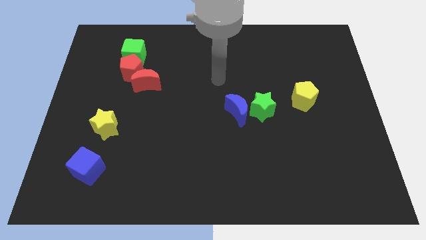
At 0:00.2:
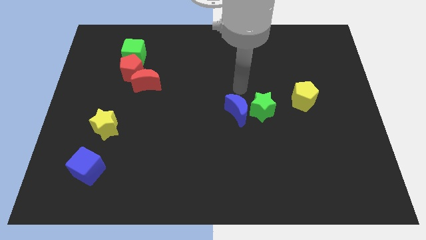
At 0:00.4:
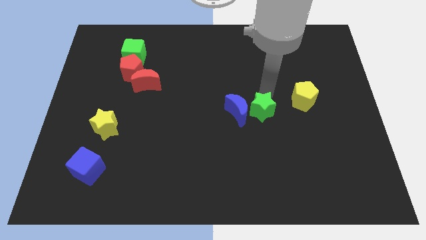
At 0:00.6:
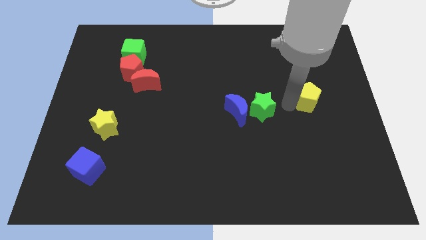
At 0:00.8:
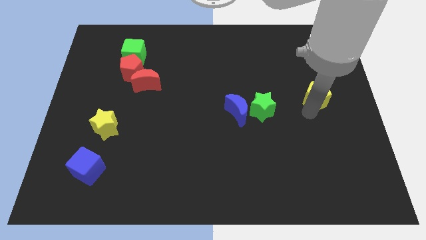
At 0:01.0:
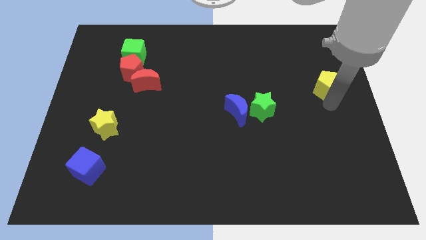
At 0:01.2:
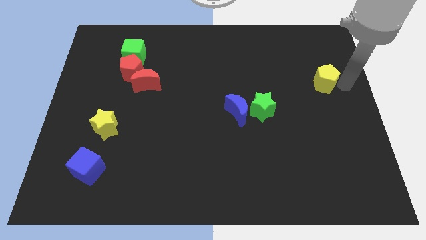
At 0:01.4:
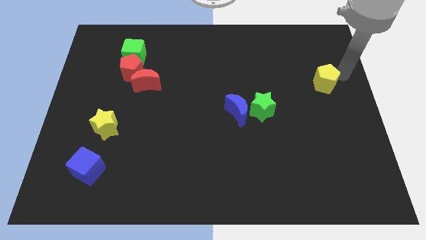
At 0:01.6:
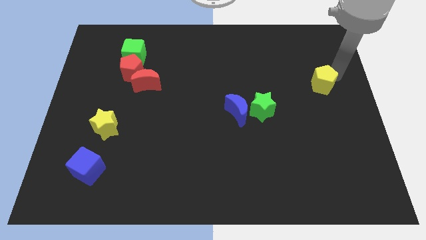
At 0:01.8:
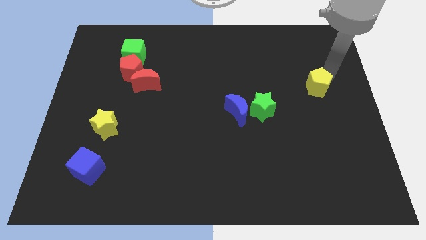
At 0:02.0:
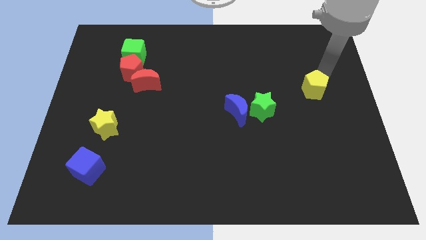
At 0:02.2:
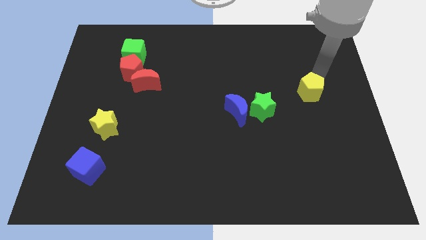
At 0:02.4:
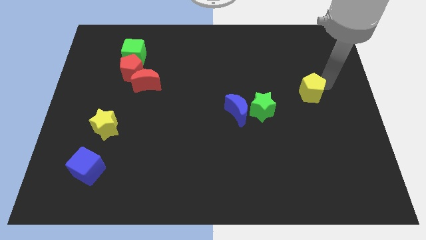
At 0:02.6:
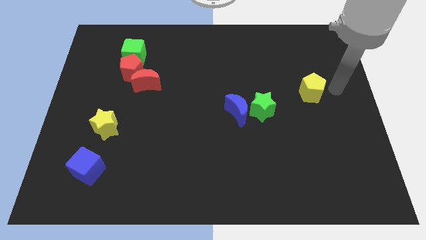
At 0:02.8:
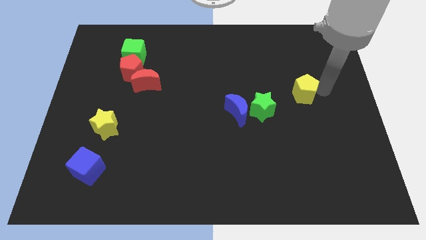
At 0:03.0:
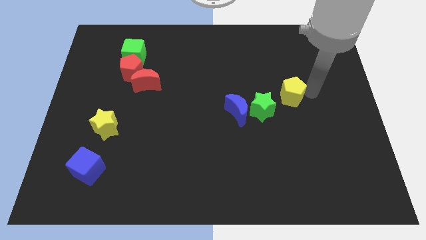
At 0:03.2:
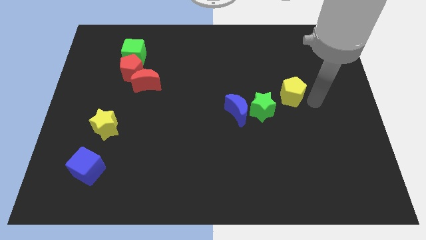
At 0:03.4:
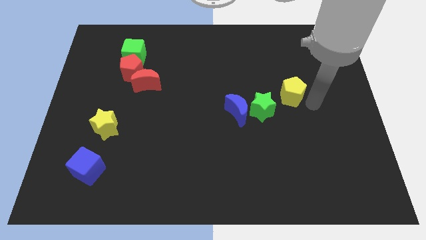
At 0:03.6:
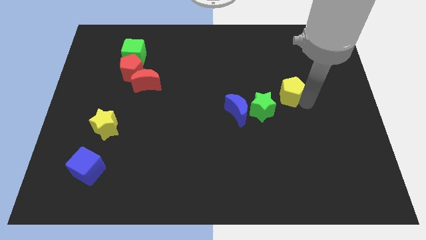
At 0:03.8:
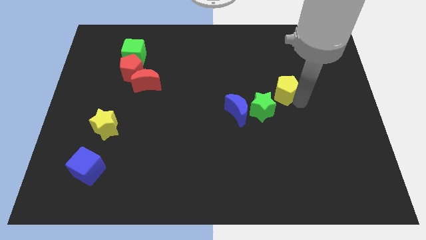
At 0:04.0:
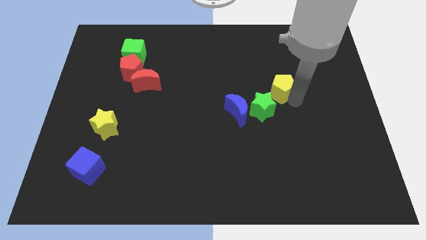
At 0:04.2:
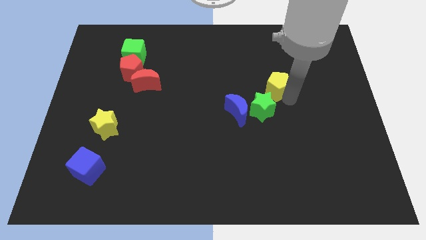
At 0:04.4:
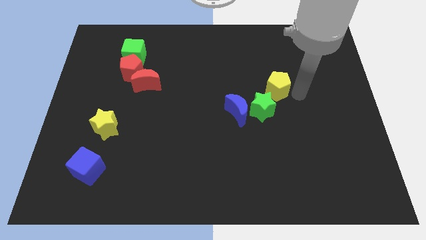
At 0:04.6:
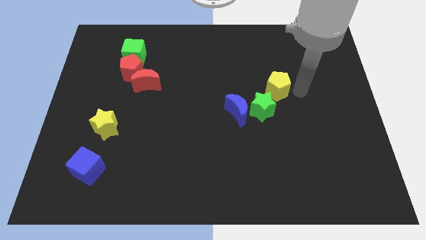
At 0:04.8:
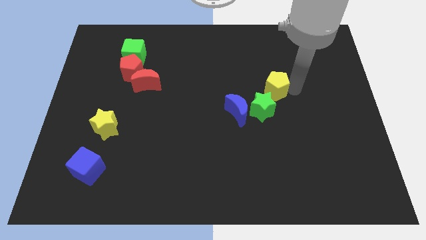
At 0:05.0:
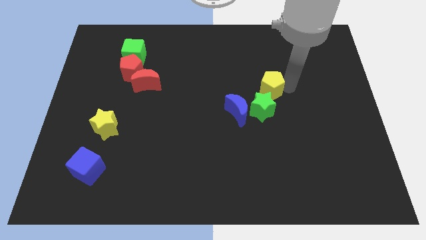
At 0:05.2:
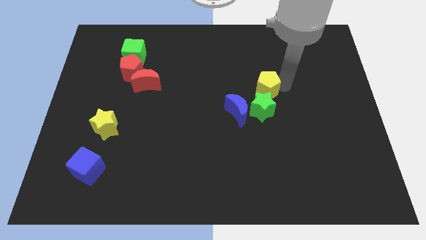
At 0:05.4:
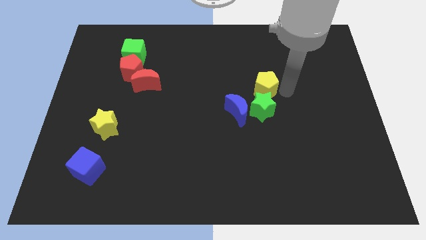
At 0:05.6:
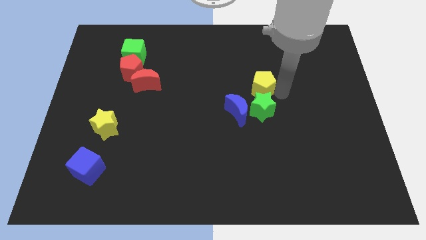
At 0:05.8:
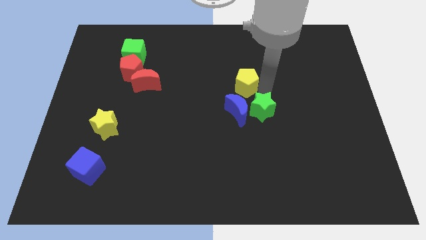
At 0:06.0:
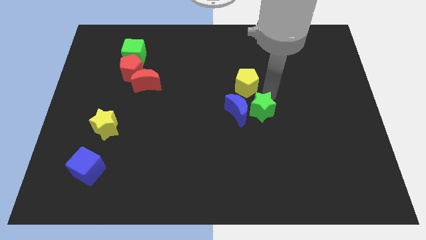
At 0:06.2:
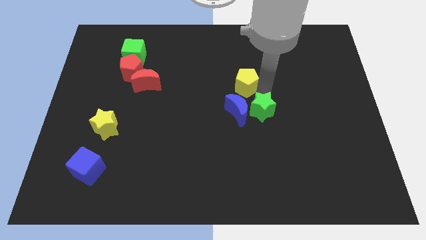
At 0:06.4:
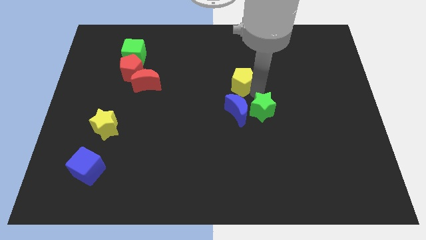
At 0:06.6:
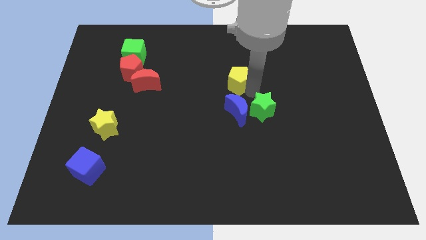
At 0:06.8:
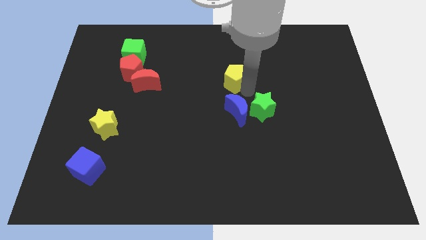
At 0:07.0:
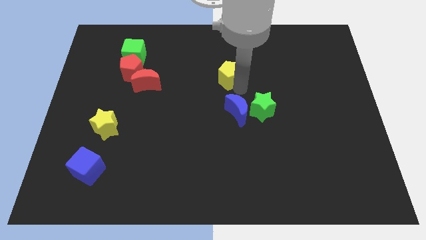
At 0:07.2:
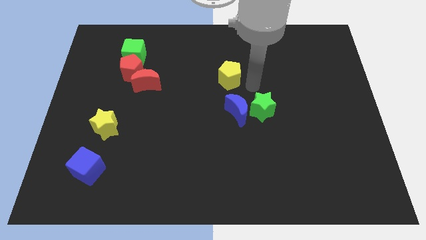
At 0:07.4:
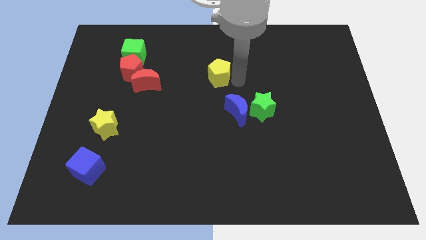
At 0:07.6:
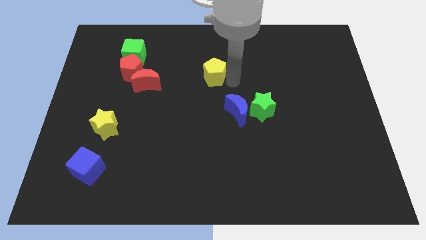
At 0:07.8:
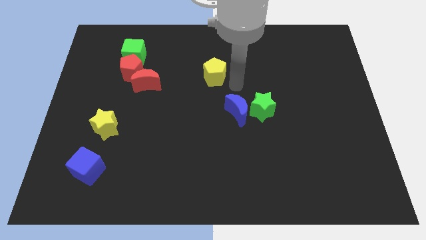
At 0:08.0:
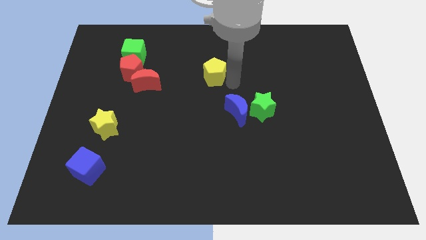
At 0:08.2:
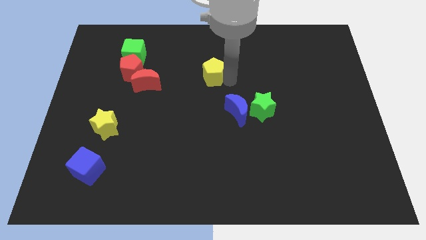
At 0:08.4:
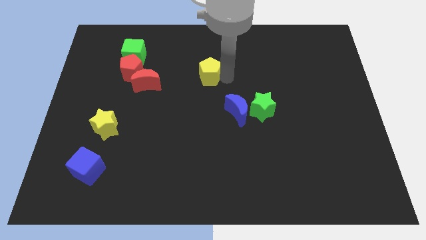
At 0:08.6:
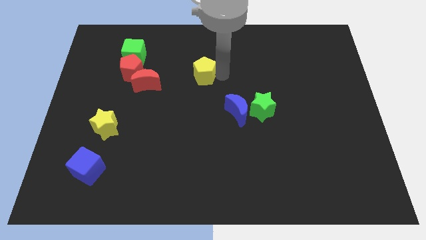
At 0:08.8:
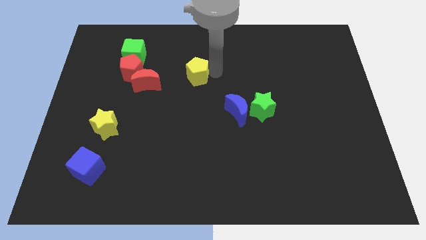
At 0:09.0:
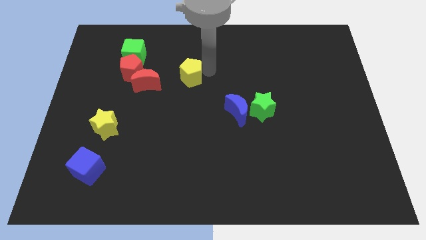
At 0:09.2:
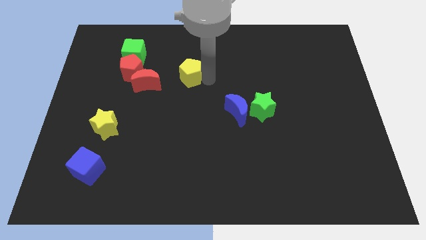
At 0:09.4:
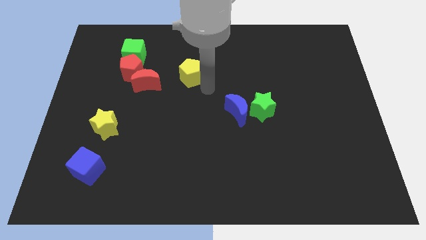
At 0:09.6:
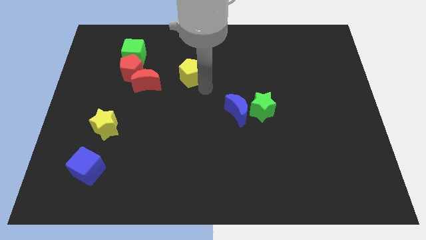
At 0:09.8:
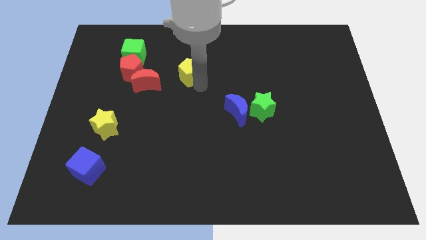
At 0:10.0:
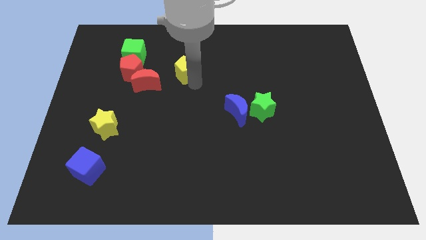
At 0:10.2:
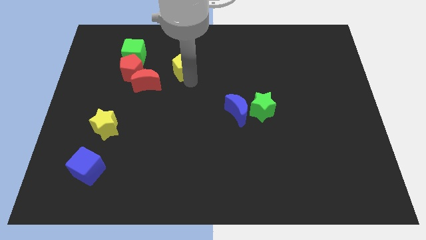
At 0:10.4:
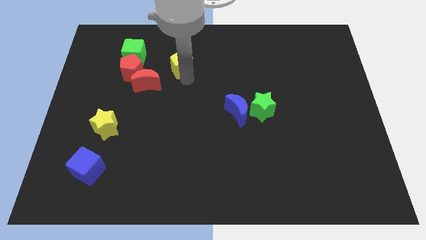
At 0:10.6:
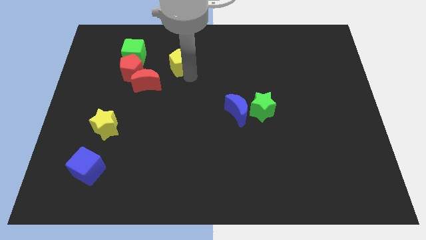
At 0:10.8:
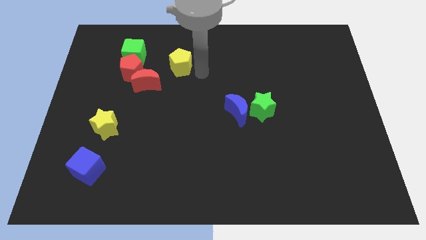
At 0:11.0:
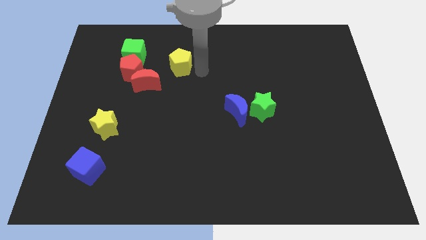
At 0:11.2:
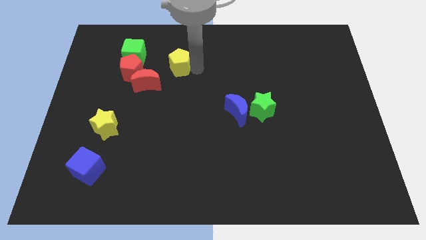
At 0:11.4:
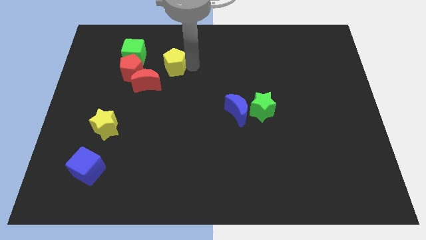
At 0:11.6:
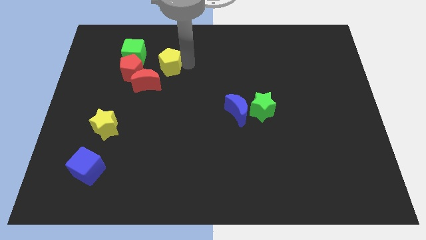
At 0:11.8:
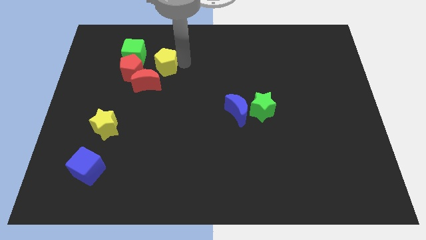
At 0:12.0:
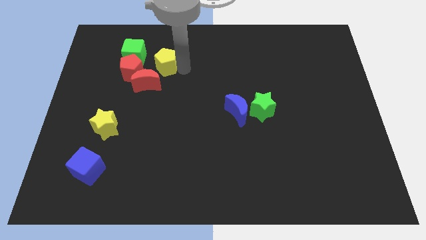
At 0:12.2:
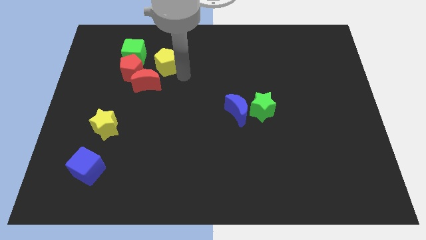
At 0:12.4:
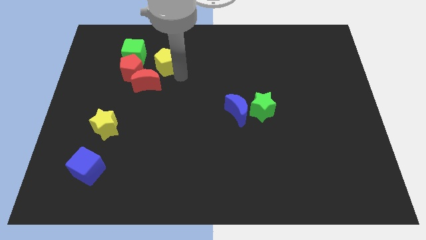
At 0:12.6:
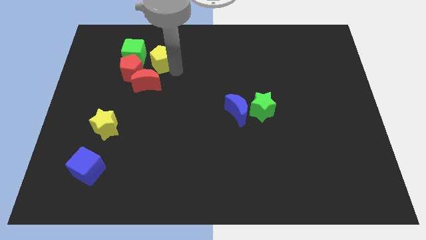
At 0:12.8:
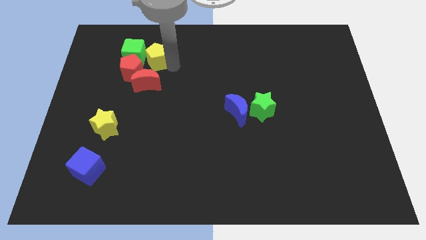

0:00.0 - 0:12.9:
slide the yellow pentagon next to the green cube
